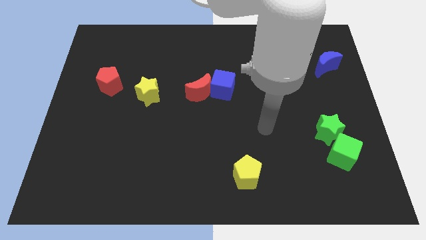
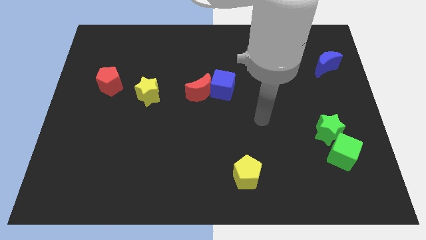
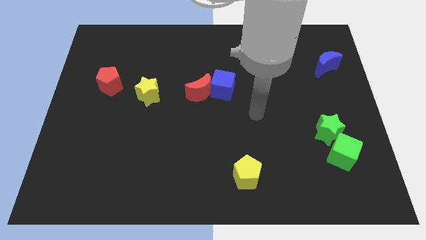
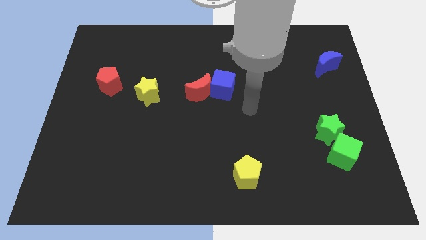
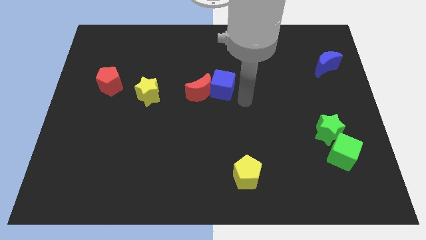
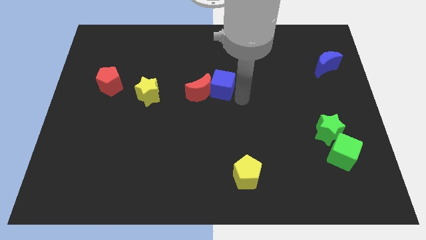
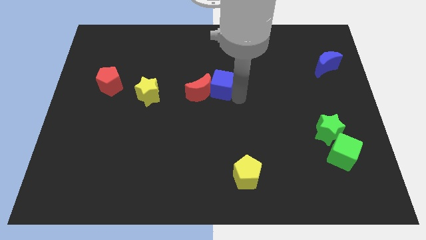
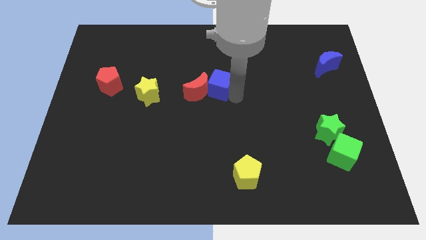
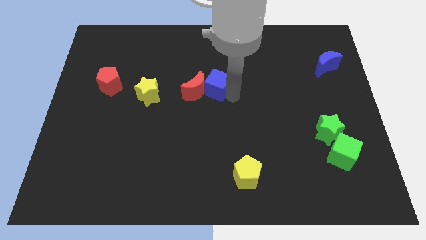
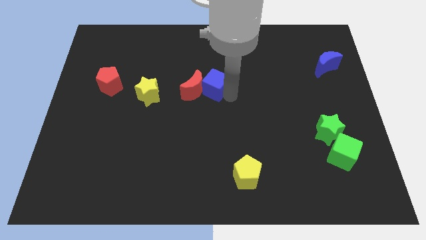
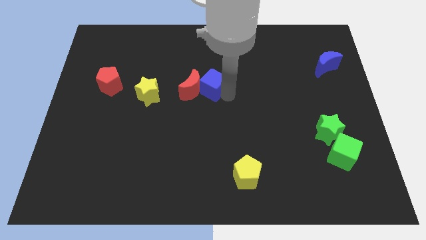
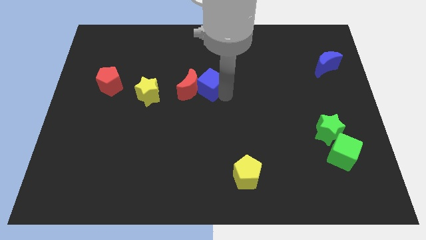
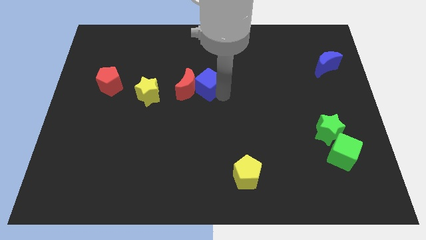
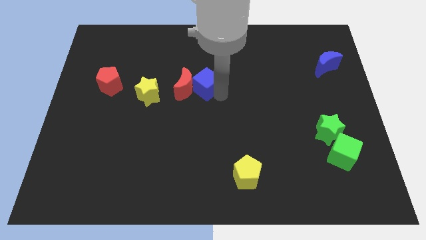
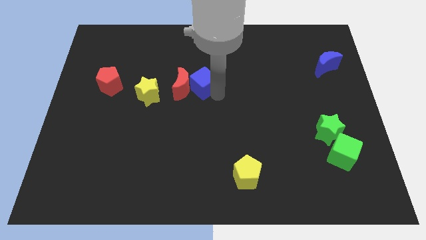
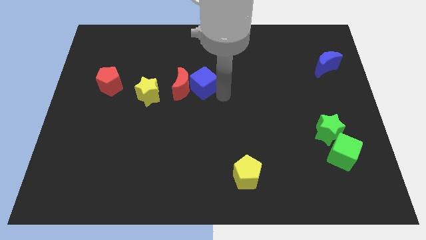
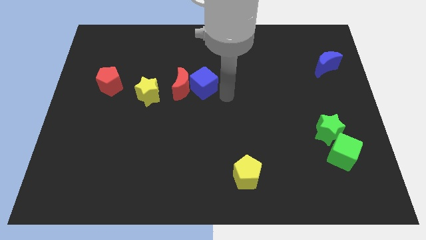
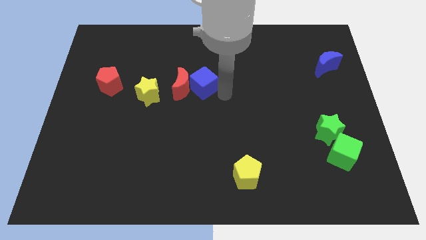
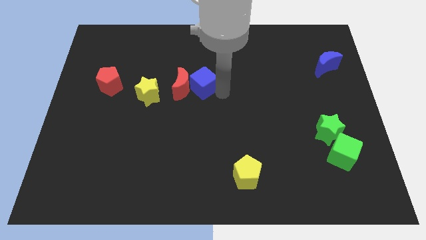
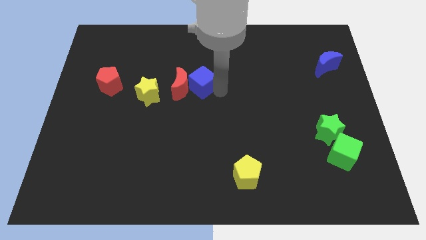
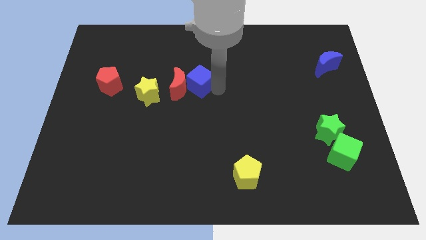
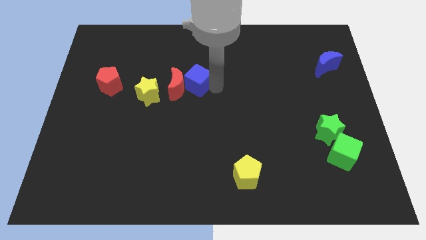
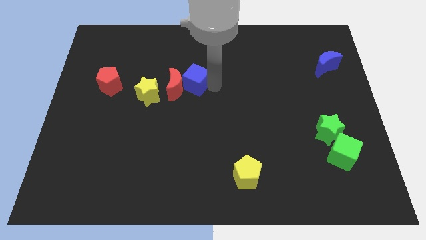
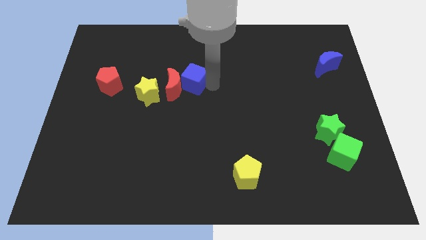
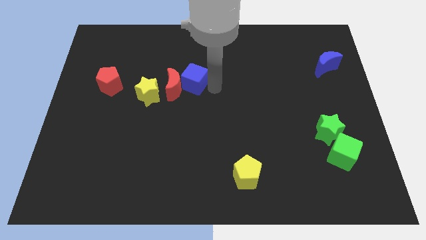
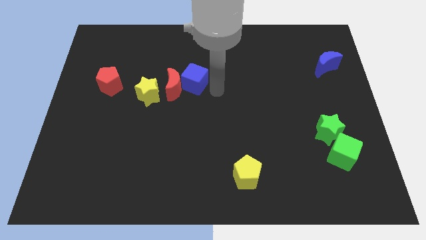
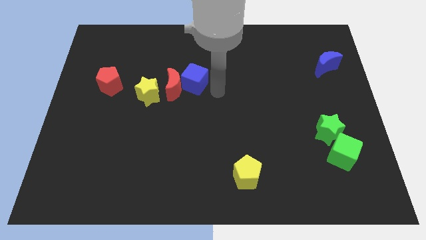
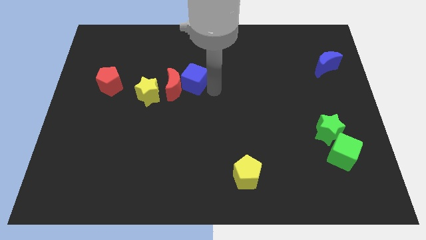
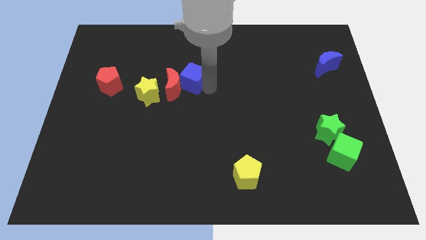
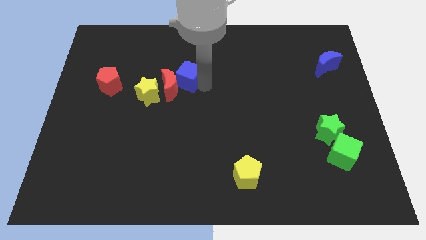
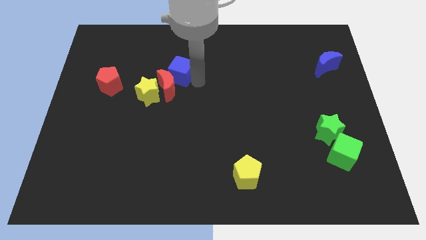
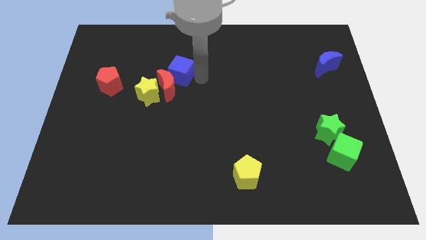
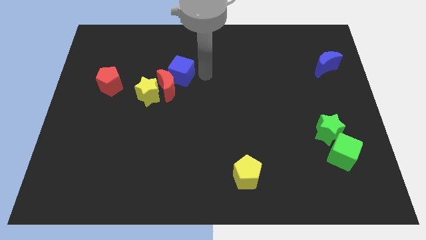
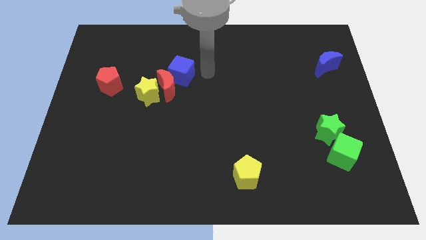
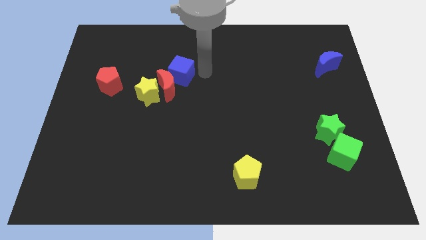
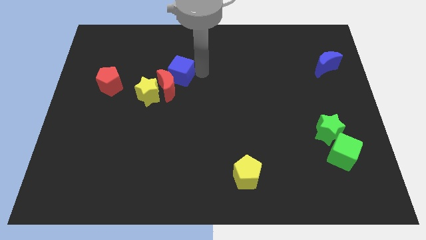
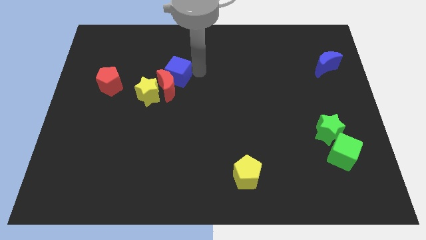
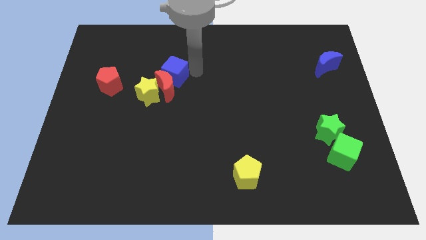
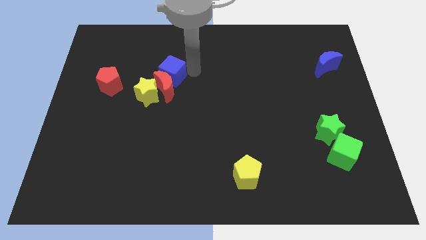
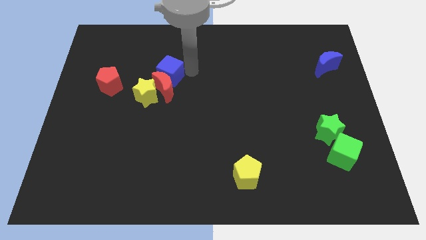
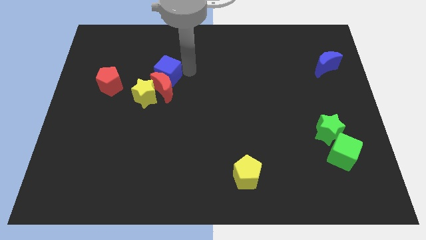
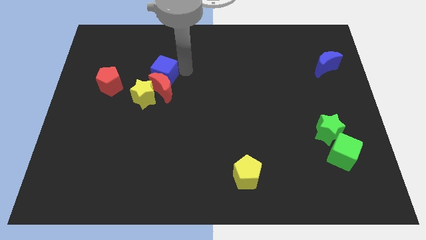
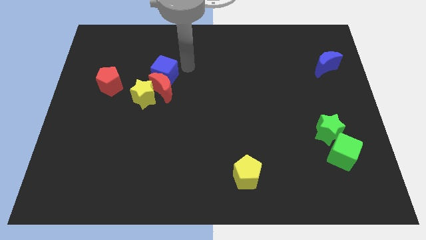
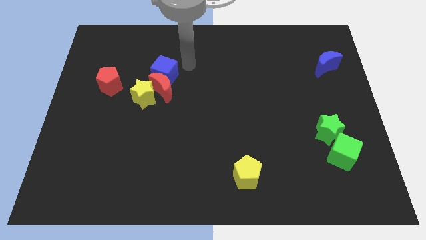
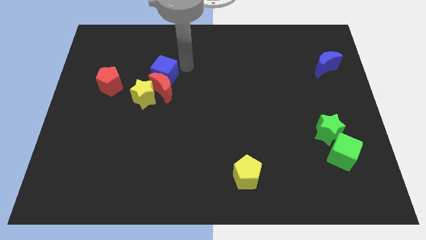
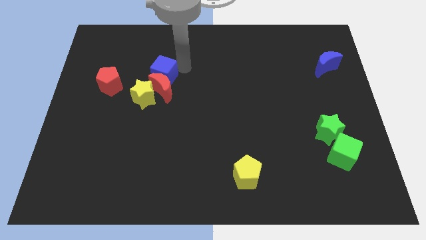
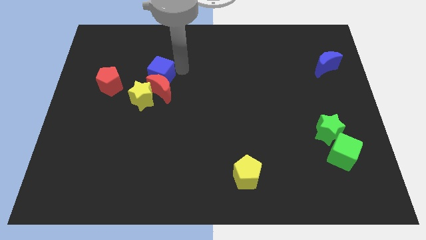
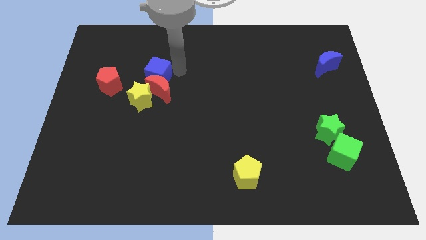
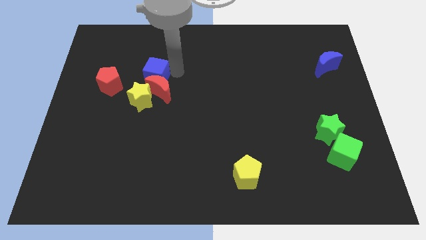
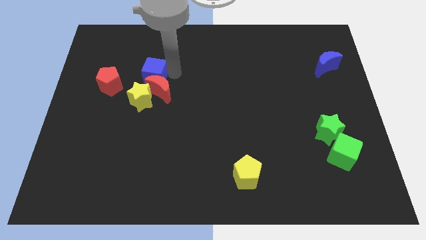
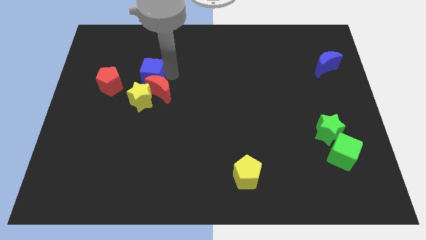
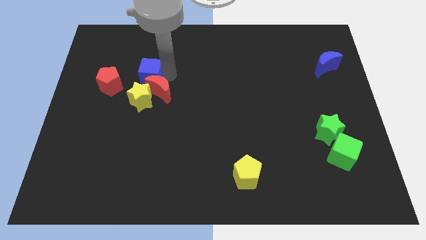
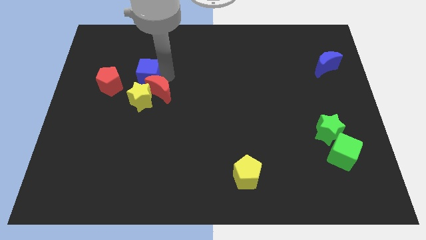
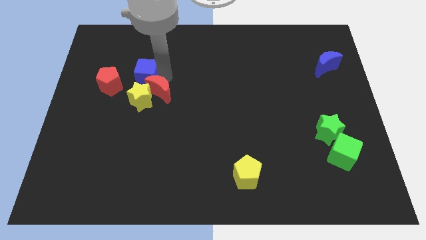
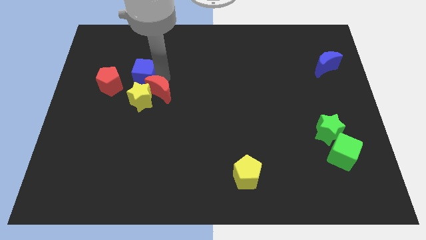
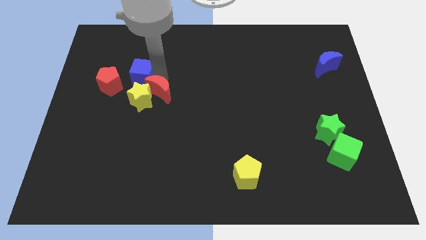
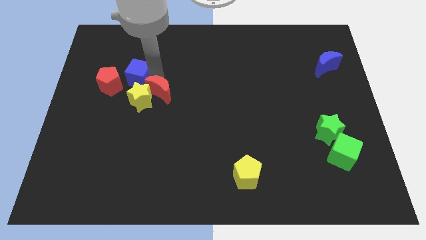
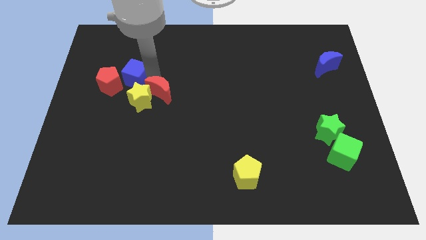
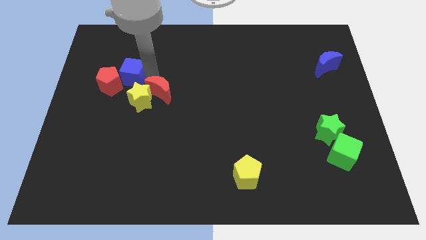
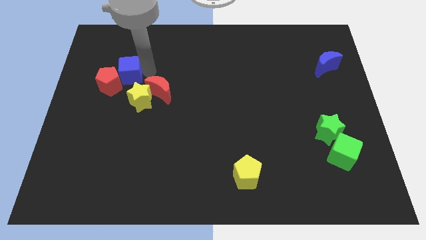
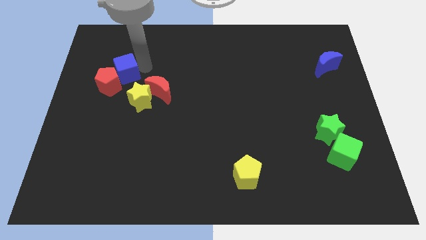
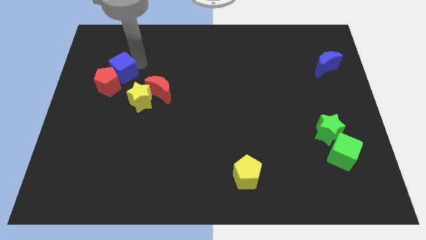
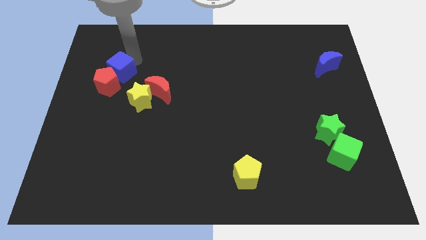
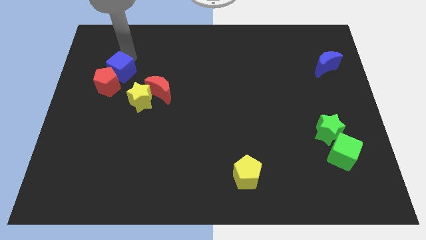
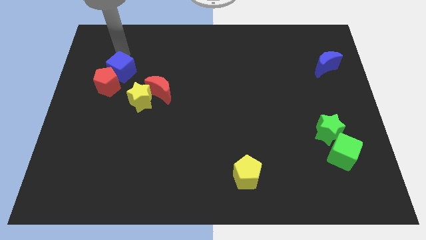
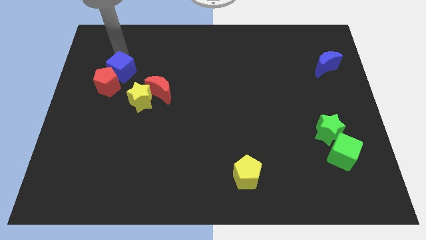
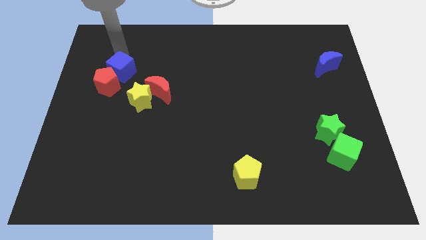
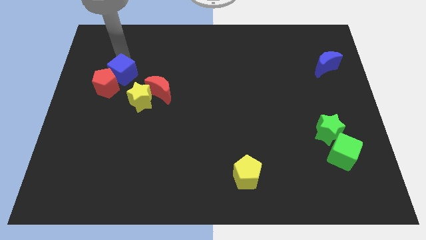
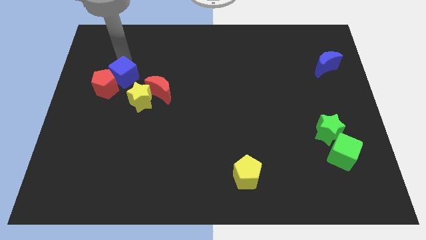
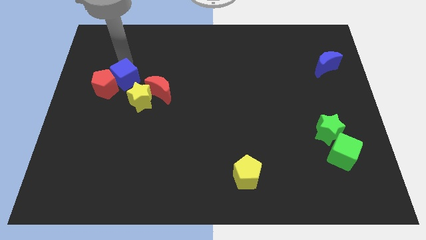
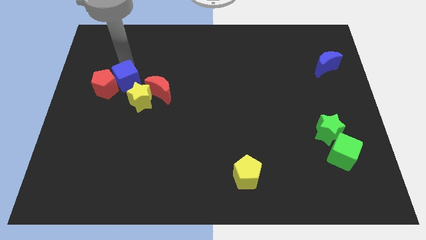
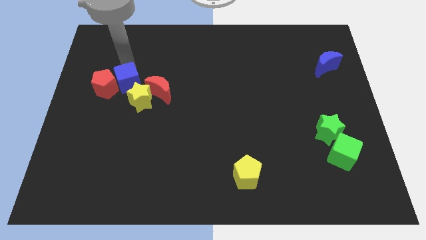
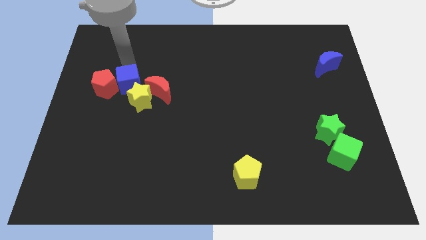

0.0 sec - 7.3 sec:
slide the blue cube to the bottom right of the red pentagon

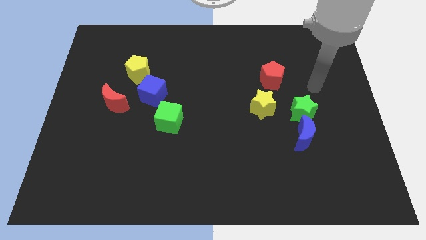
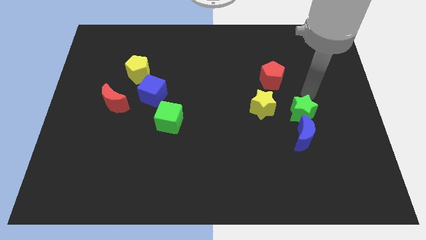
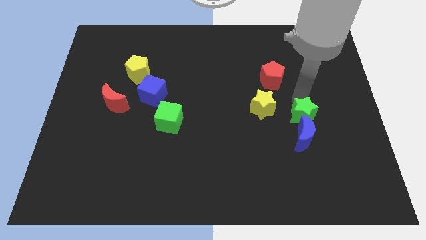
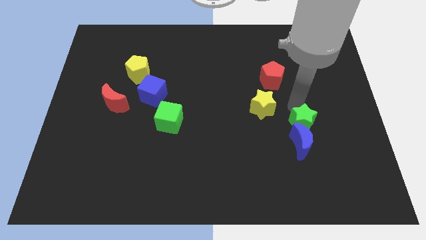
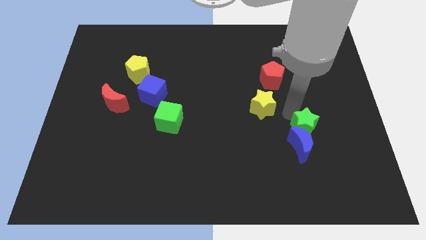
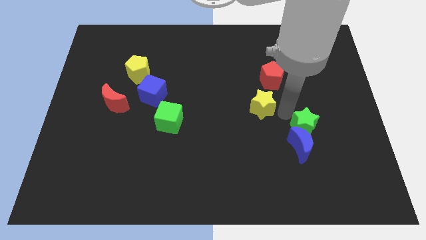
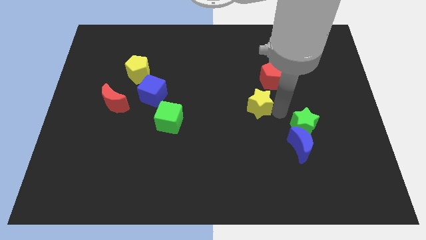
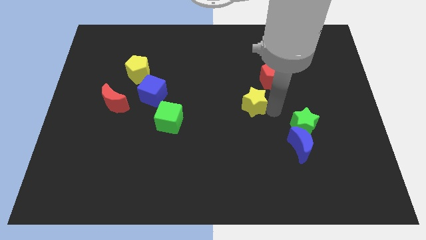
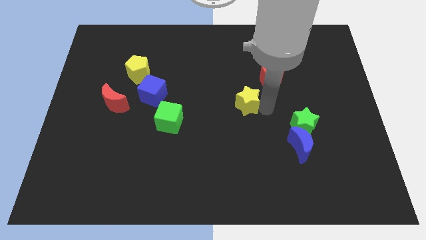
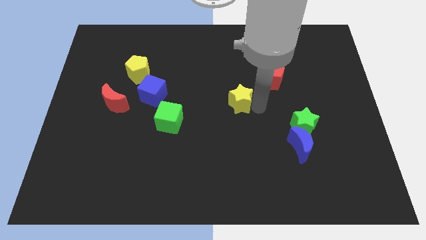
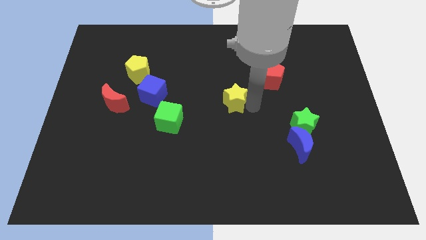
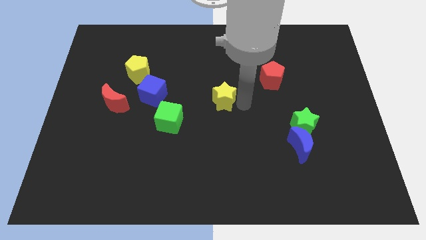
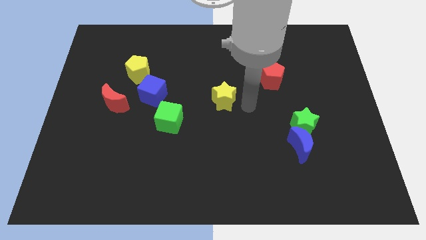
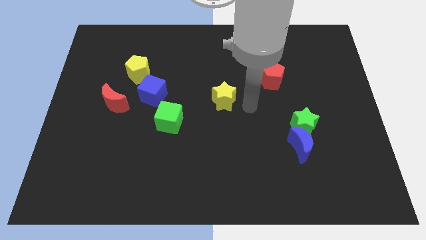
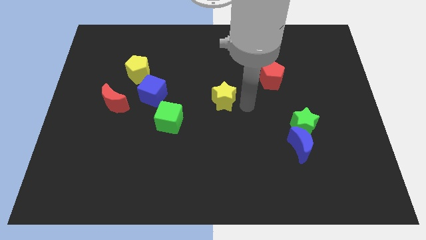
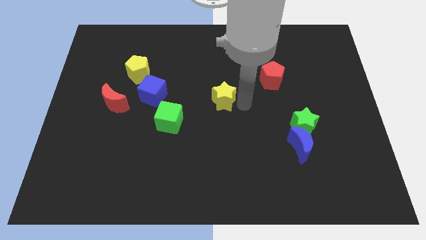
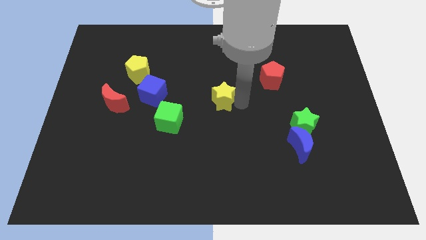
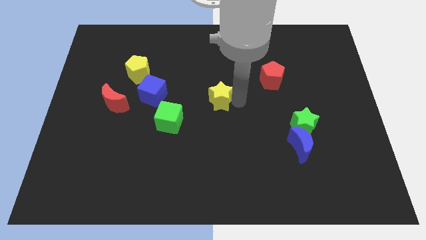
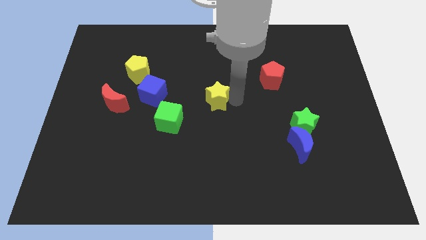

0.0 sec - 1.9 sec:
put the yellow star right of the blue cube
